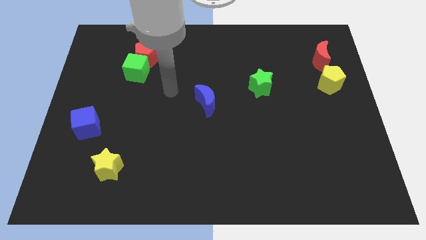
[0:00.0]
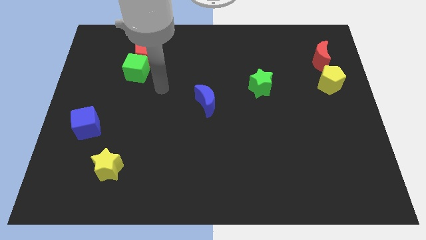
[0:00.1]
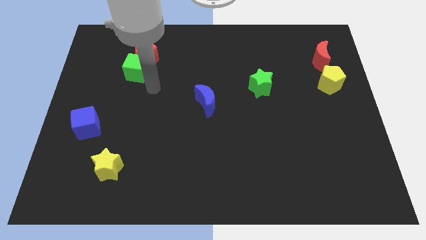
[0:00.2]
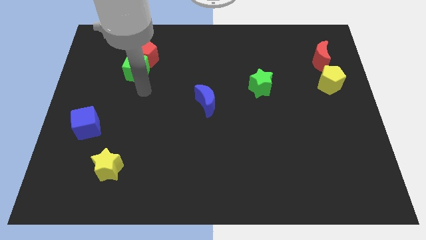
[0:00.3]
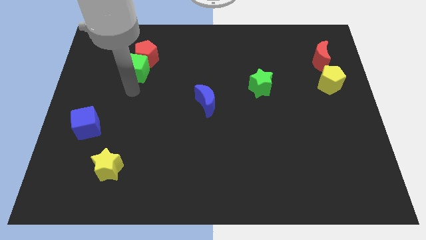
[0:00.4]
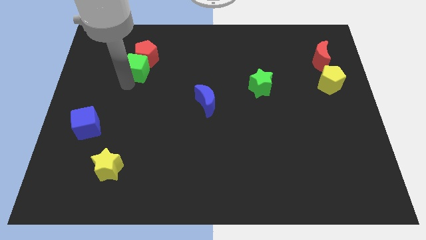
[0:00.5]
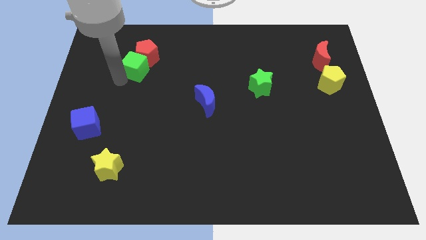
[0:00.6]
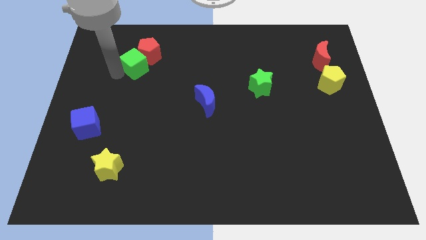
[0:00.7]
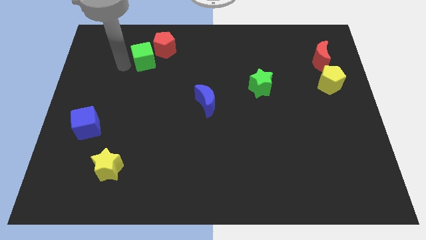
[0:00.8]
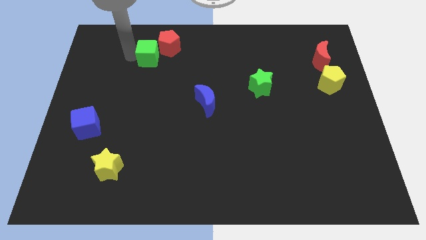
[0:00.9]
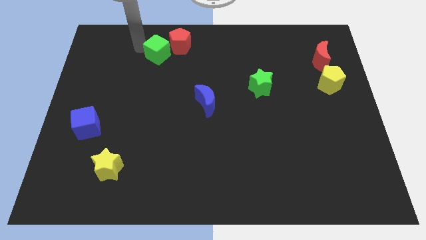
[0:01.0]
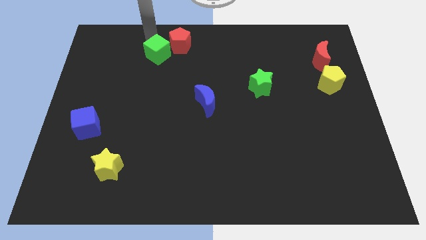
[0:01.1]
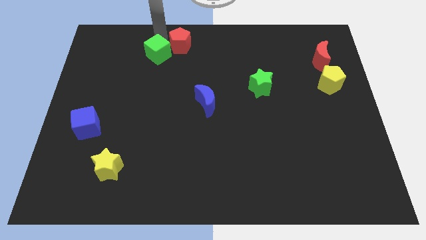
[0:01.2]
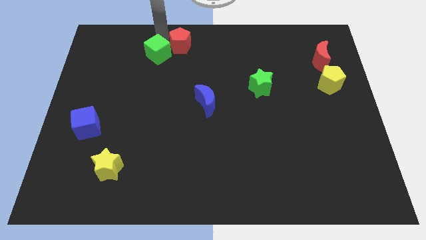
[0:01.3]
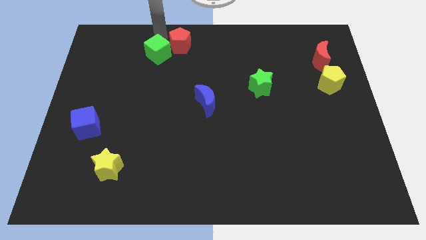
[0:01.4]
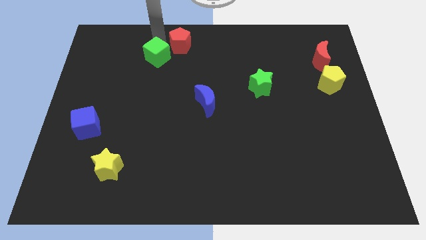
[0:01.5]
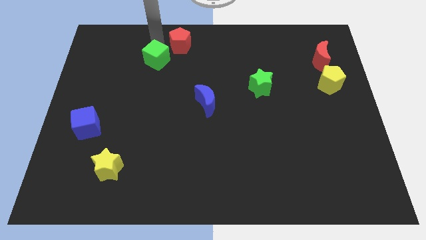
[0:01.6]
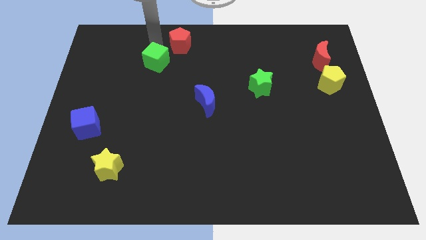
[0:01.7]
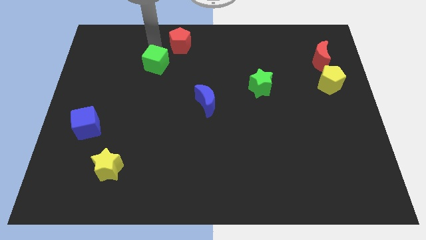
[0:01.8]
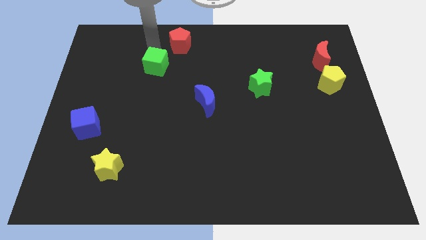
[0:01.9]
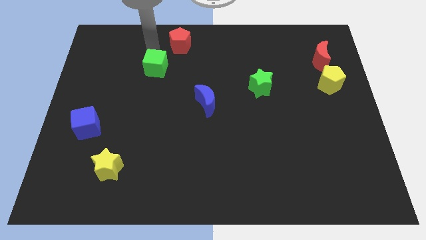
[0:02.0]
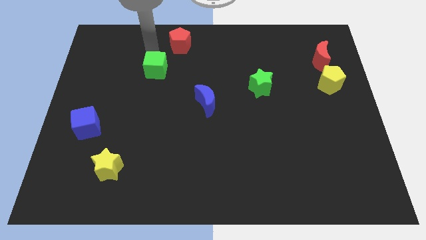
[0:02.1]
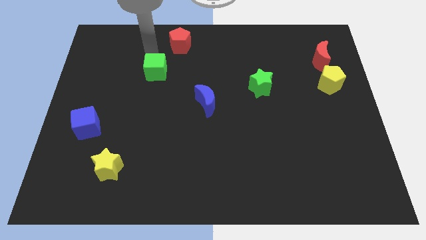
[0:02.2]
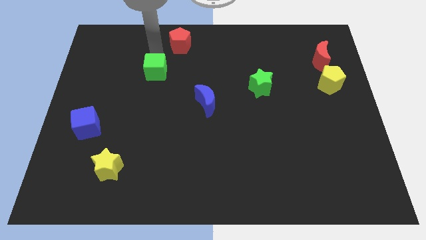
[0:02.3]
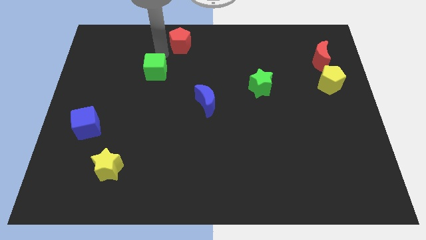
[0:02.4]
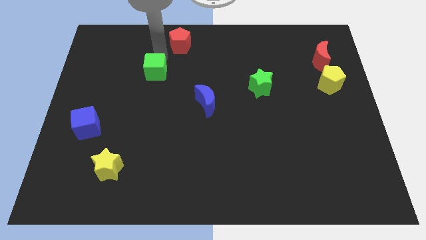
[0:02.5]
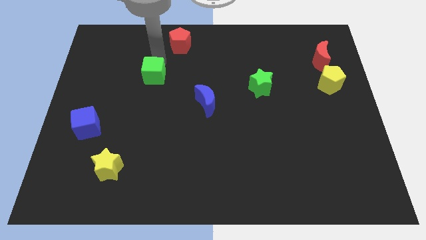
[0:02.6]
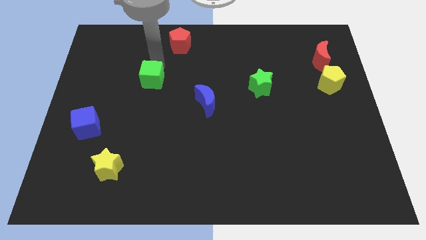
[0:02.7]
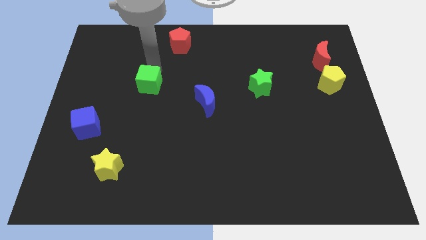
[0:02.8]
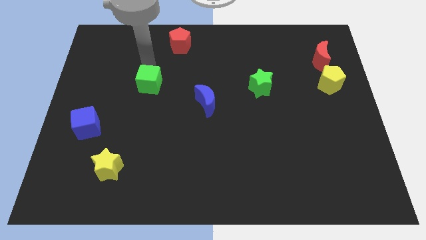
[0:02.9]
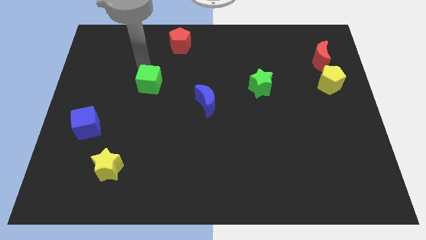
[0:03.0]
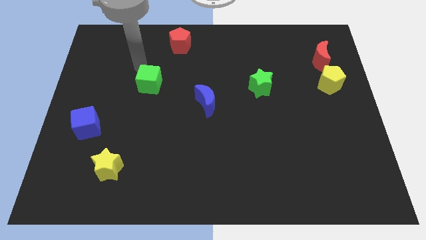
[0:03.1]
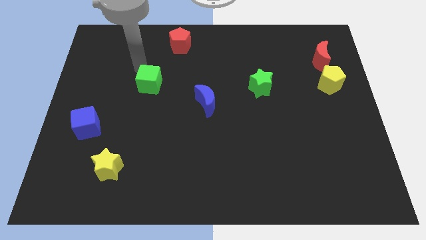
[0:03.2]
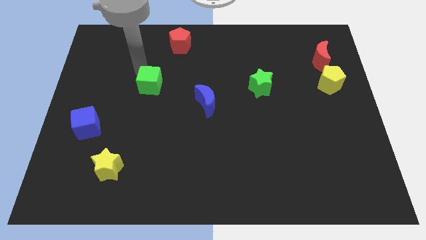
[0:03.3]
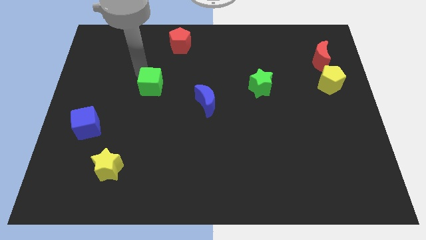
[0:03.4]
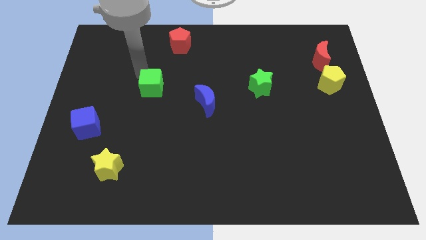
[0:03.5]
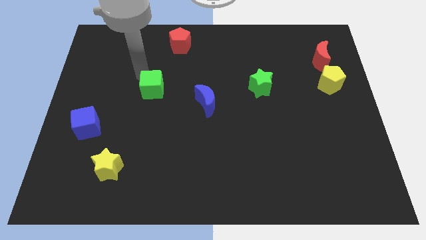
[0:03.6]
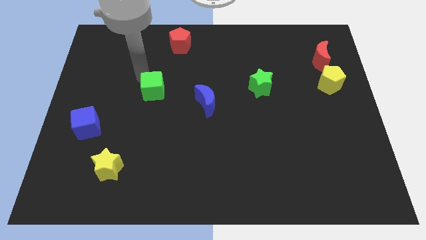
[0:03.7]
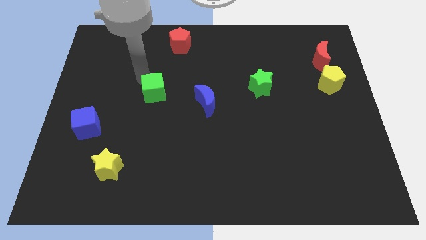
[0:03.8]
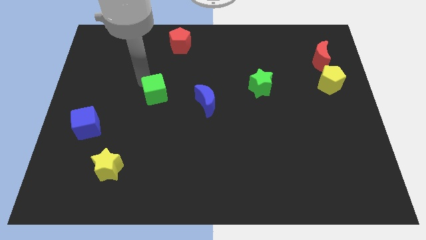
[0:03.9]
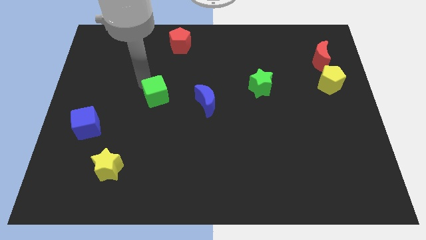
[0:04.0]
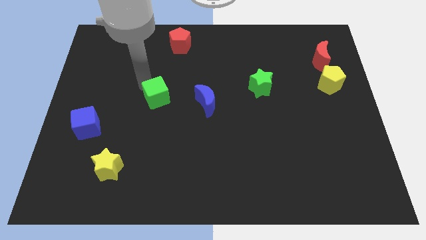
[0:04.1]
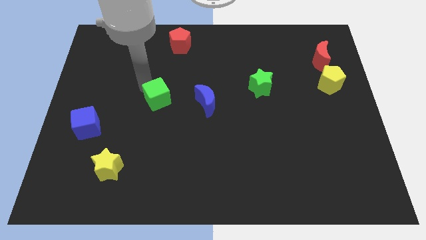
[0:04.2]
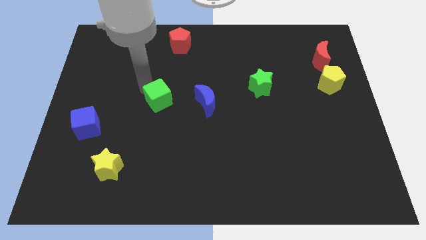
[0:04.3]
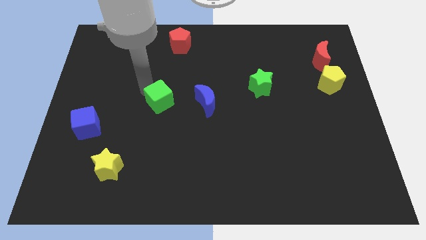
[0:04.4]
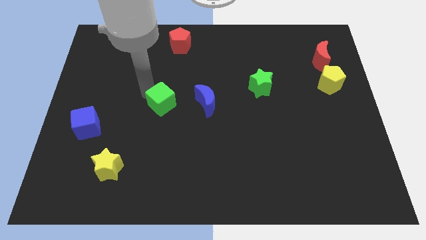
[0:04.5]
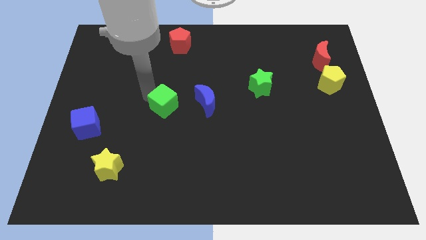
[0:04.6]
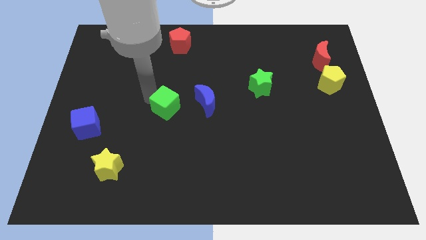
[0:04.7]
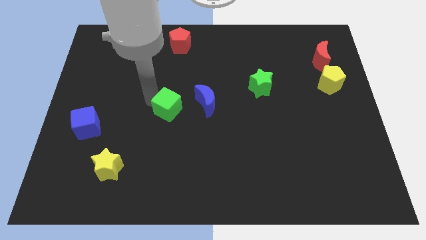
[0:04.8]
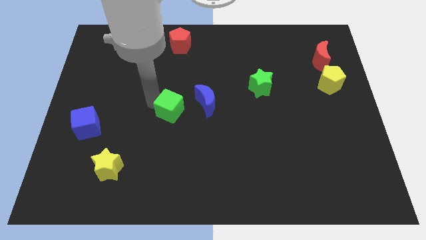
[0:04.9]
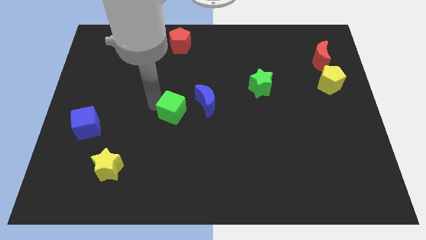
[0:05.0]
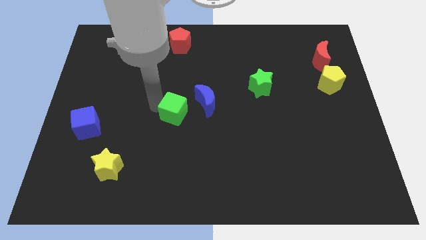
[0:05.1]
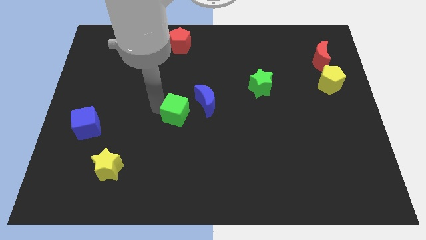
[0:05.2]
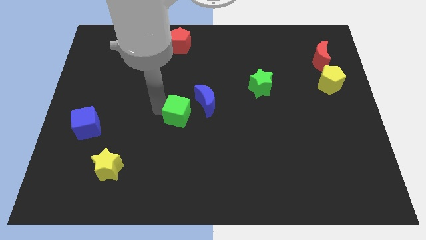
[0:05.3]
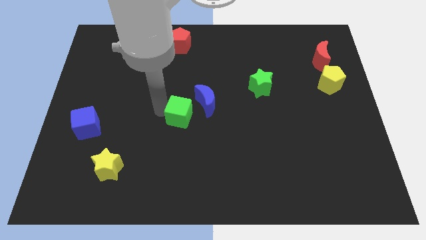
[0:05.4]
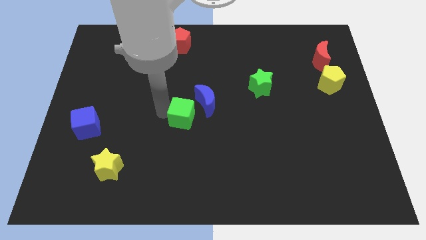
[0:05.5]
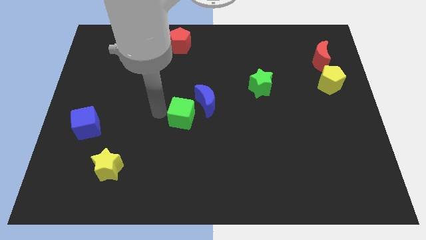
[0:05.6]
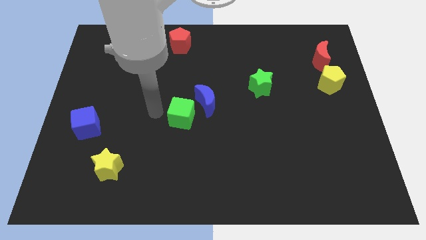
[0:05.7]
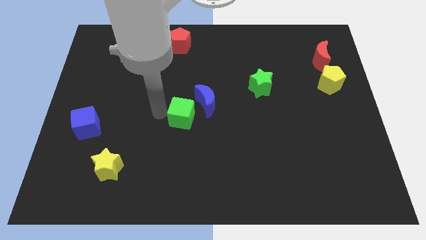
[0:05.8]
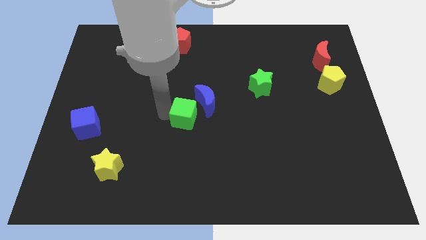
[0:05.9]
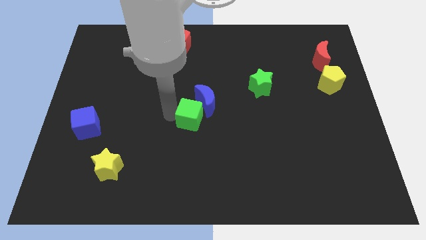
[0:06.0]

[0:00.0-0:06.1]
move the green cube diagonally down and to the right

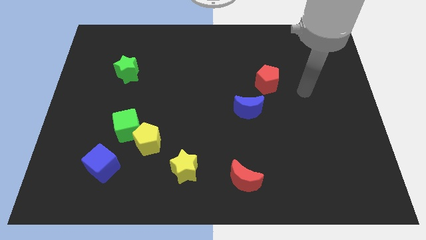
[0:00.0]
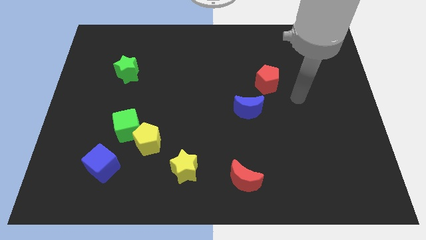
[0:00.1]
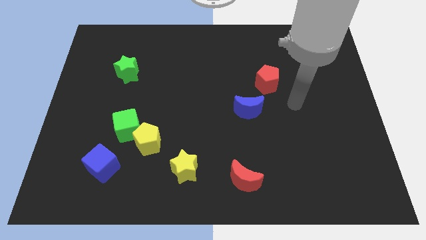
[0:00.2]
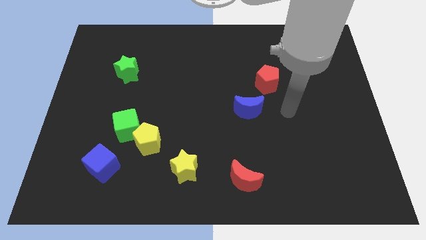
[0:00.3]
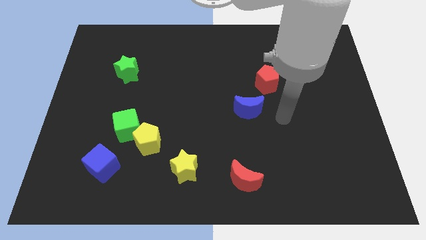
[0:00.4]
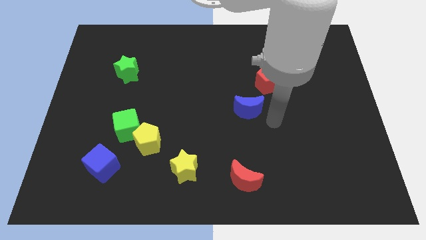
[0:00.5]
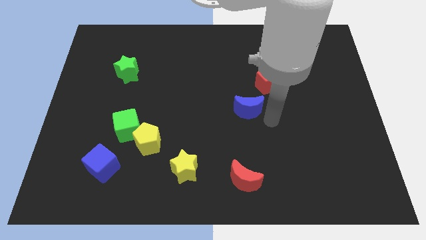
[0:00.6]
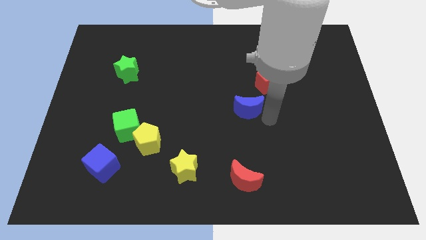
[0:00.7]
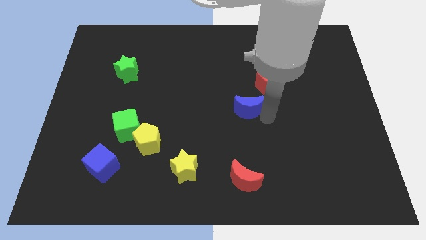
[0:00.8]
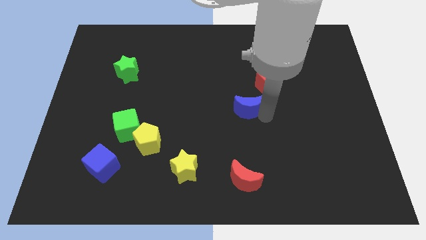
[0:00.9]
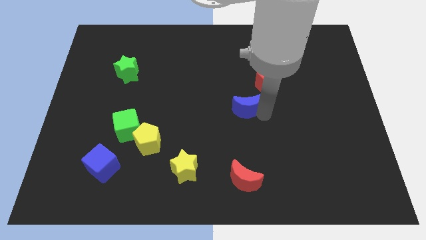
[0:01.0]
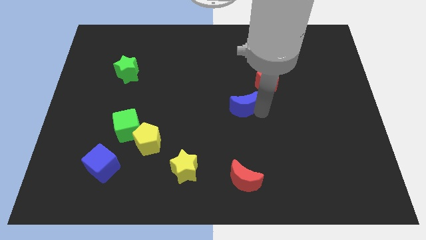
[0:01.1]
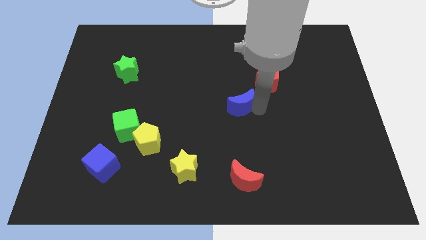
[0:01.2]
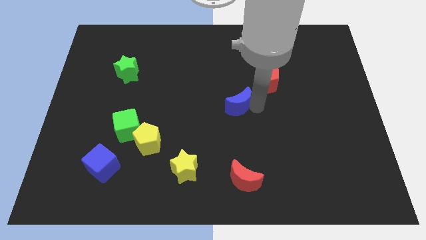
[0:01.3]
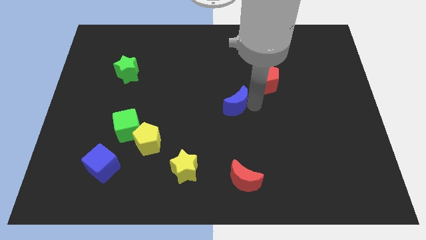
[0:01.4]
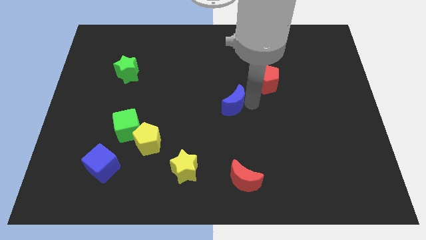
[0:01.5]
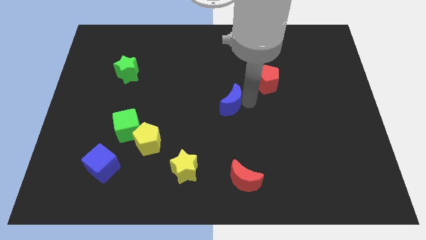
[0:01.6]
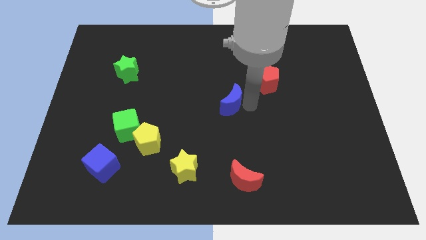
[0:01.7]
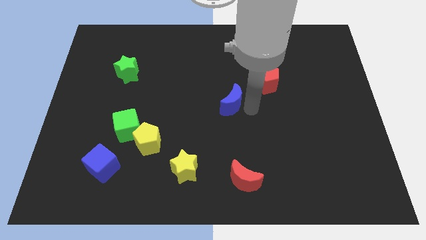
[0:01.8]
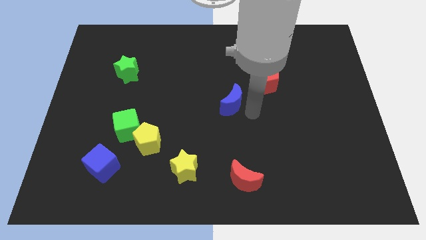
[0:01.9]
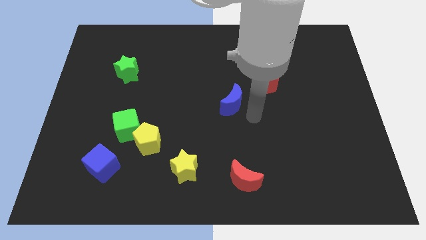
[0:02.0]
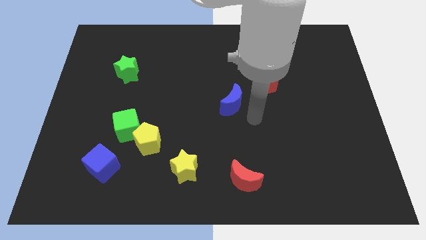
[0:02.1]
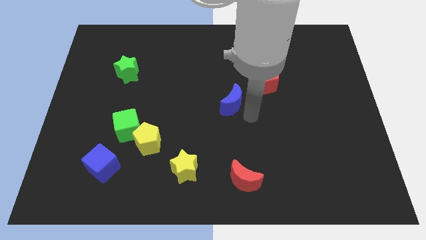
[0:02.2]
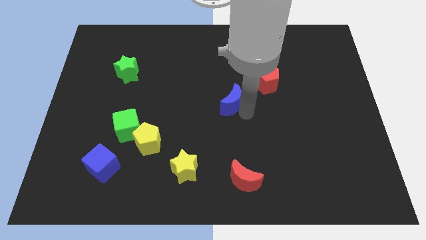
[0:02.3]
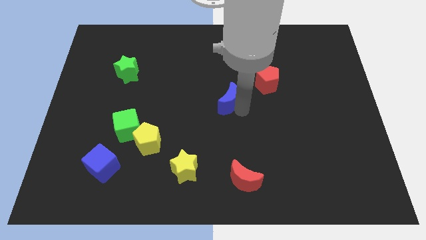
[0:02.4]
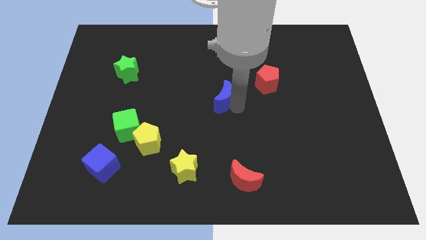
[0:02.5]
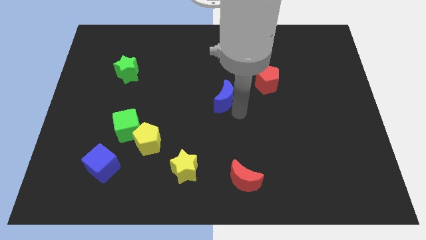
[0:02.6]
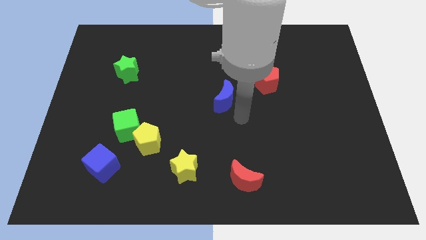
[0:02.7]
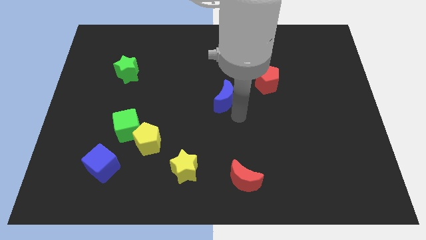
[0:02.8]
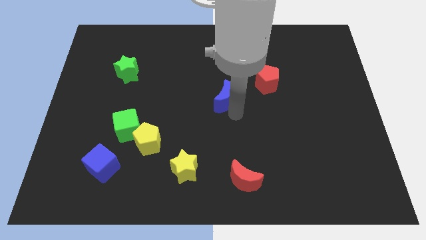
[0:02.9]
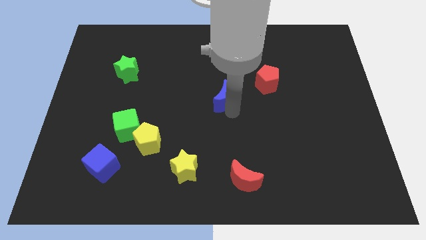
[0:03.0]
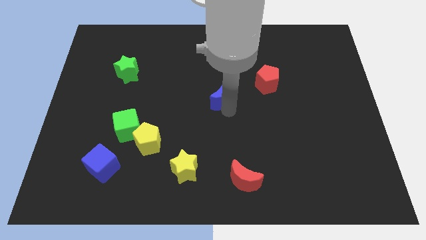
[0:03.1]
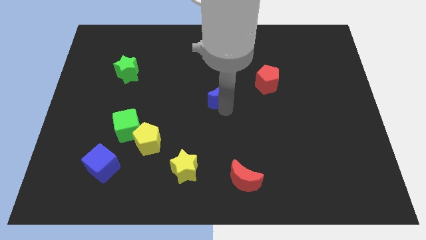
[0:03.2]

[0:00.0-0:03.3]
move the blue moon upwards and then left somewhat
